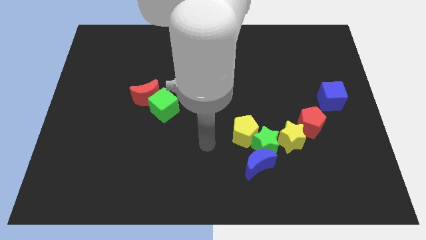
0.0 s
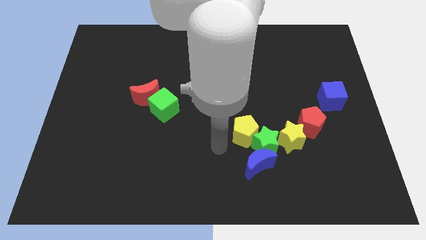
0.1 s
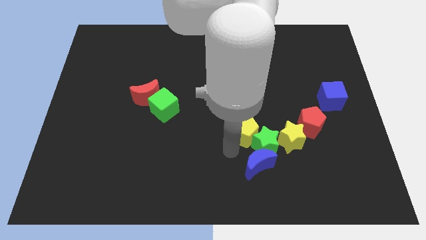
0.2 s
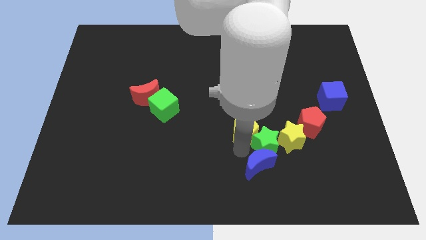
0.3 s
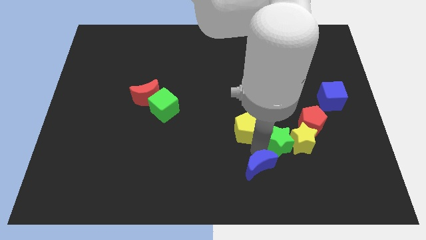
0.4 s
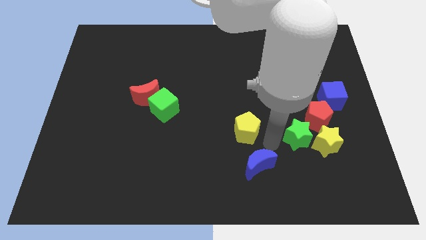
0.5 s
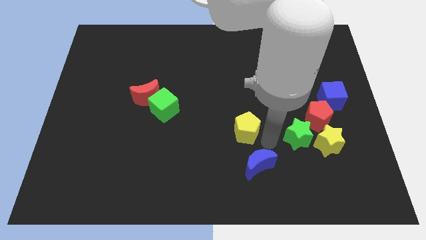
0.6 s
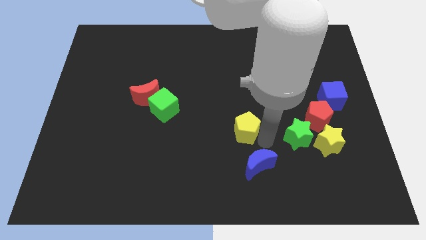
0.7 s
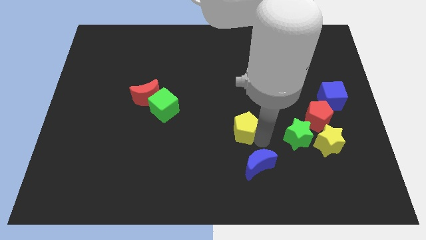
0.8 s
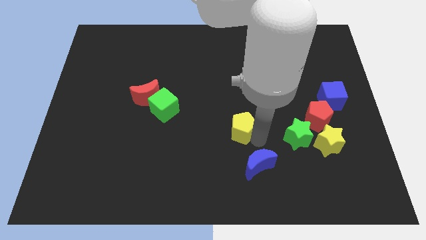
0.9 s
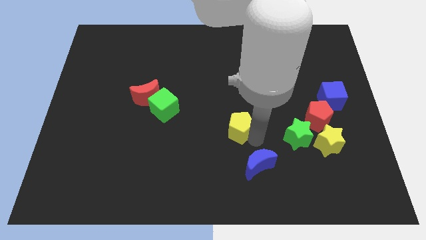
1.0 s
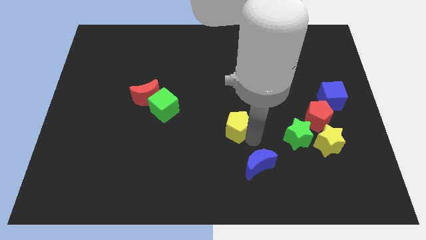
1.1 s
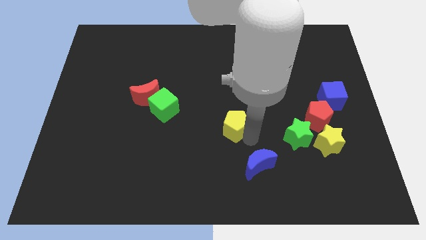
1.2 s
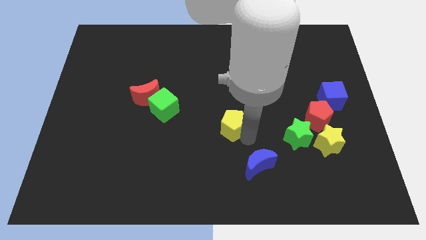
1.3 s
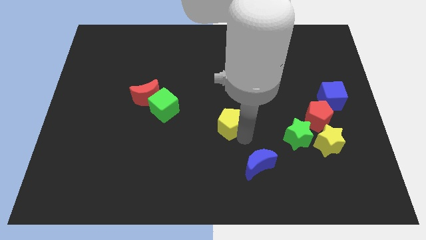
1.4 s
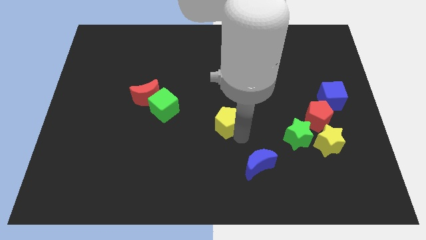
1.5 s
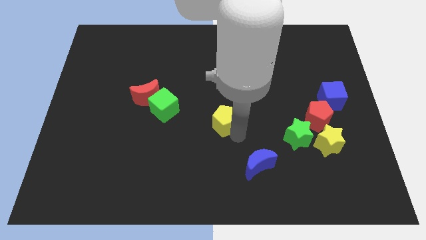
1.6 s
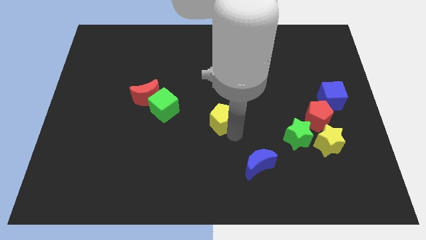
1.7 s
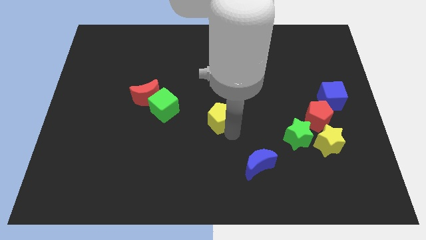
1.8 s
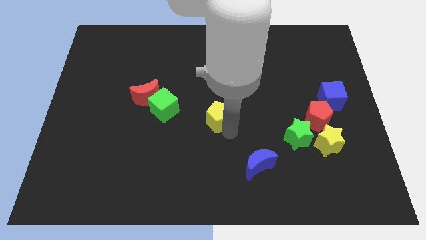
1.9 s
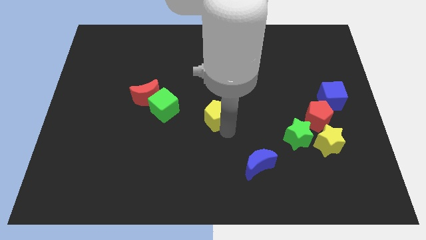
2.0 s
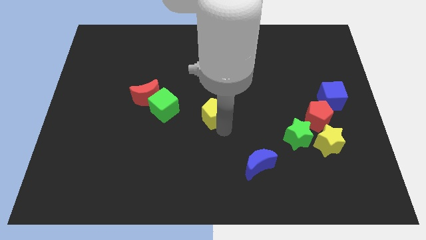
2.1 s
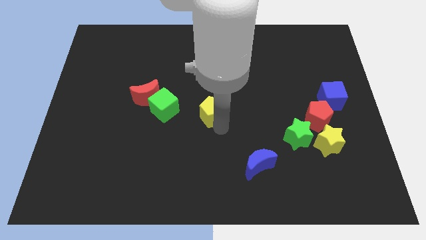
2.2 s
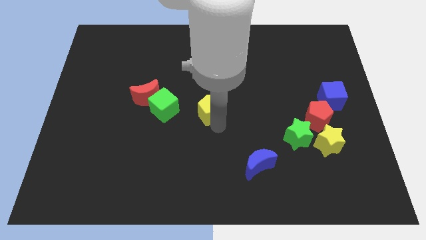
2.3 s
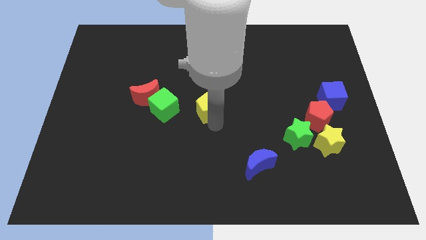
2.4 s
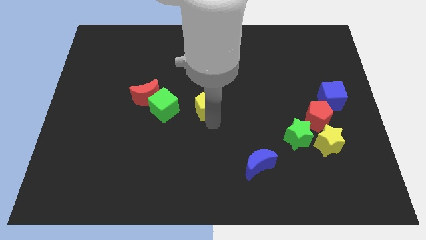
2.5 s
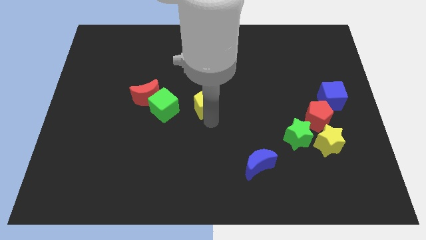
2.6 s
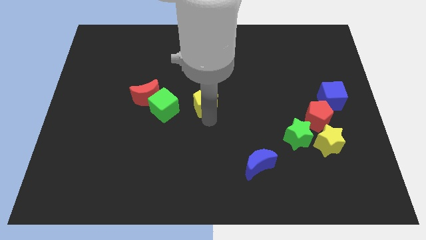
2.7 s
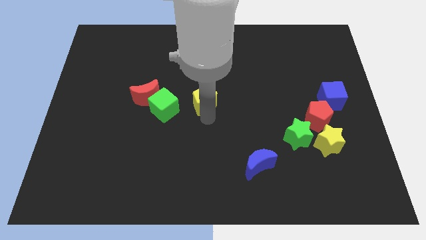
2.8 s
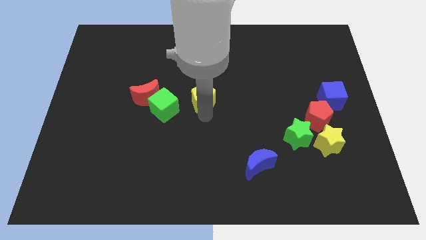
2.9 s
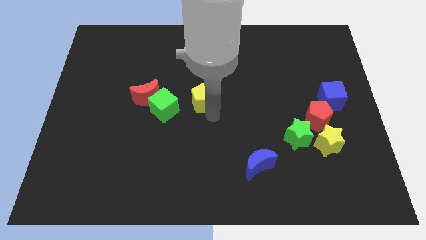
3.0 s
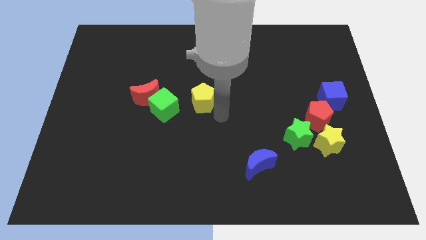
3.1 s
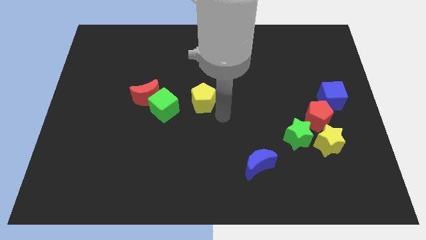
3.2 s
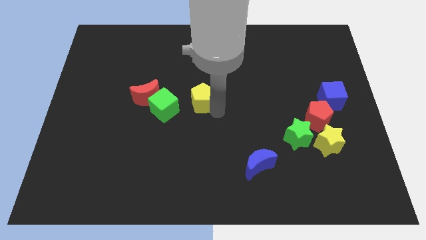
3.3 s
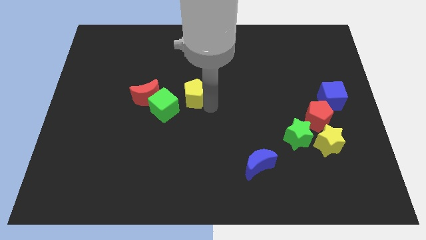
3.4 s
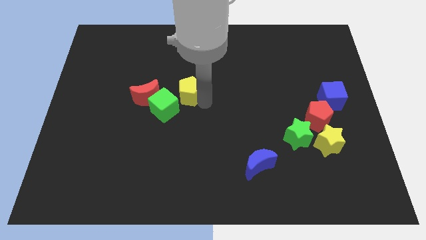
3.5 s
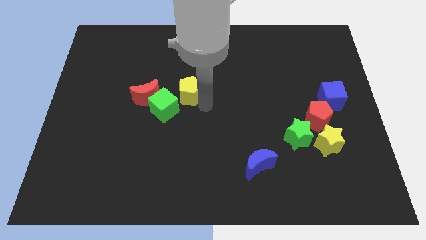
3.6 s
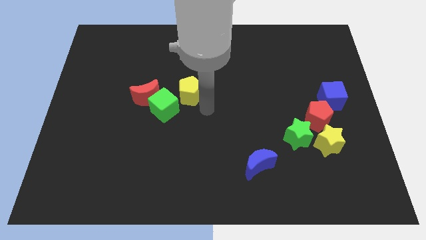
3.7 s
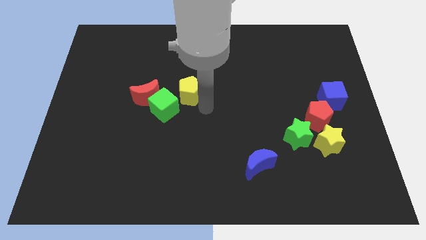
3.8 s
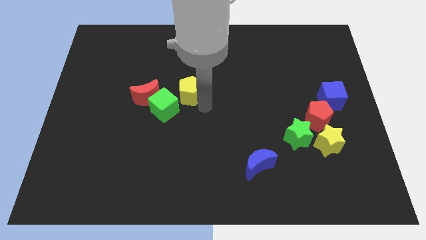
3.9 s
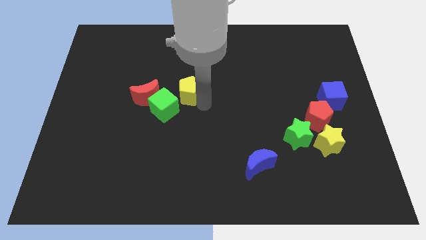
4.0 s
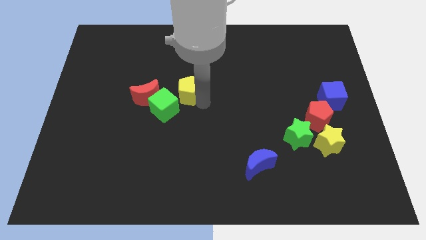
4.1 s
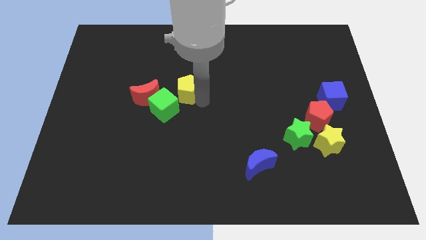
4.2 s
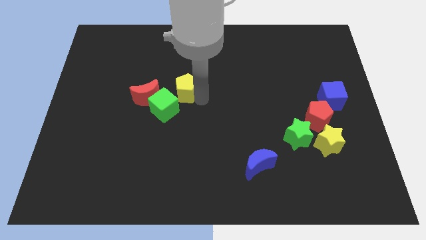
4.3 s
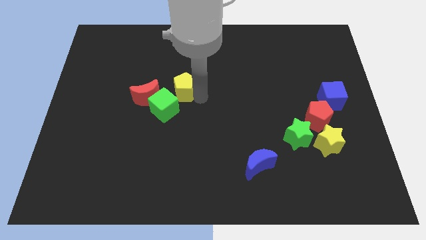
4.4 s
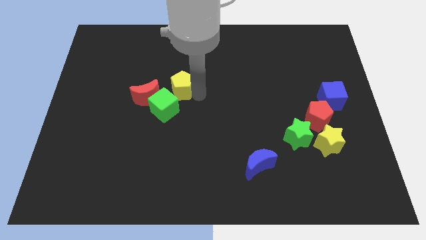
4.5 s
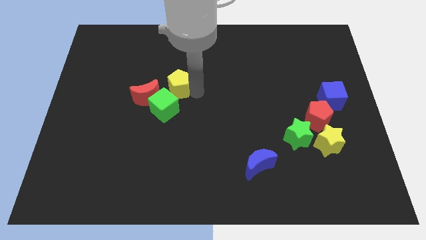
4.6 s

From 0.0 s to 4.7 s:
push the yellow pentagon diagonally up and to the left

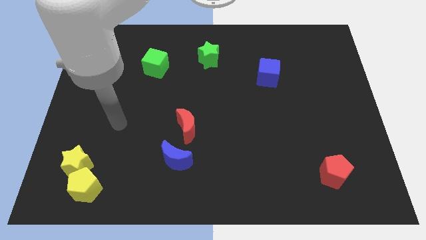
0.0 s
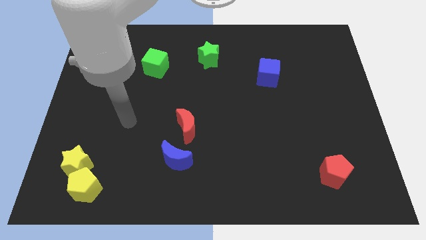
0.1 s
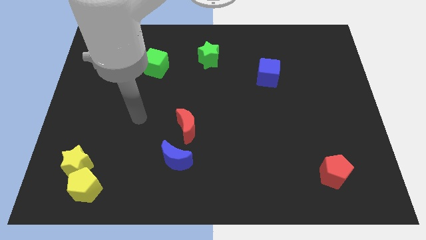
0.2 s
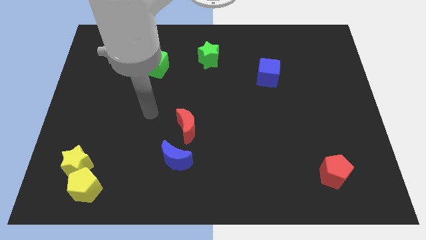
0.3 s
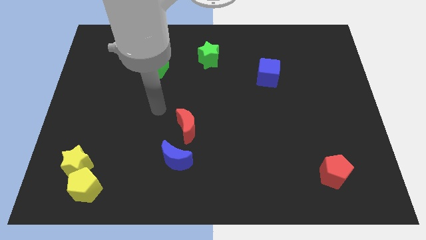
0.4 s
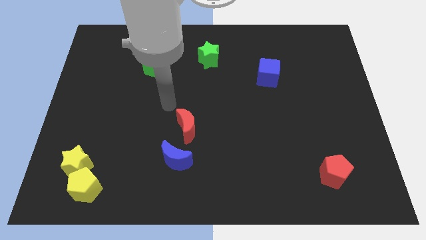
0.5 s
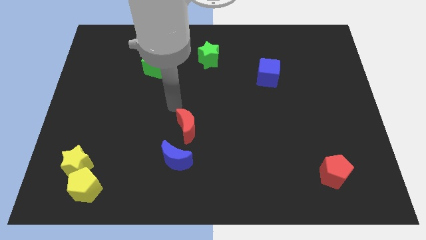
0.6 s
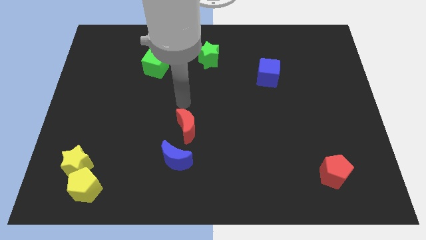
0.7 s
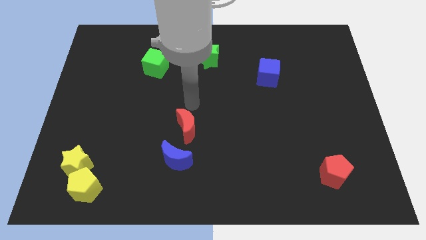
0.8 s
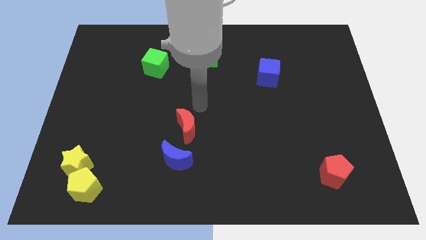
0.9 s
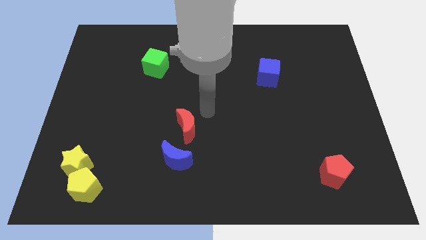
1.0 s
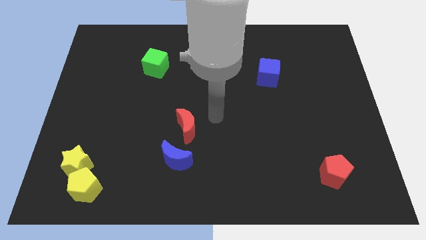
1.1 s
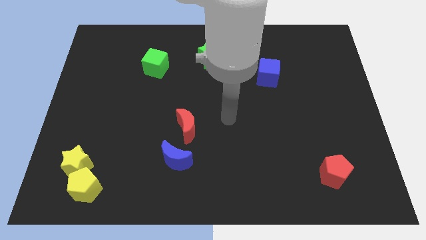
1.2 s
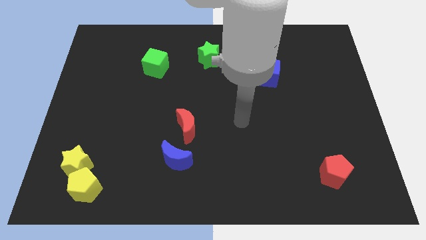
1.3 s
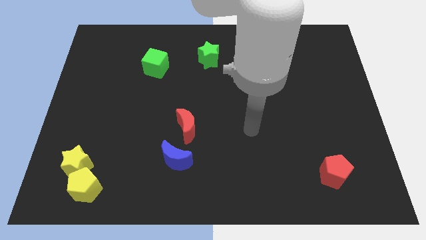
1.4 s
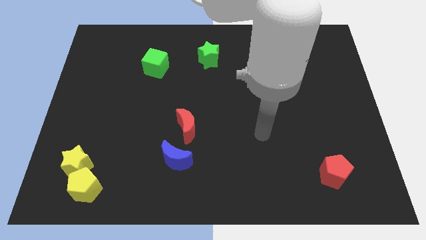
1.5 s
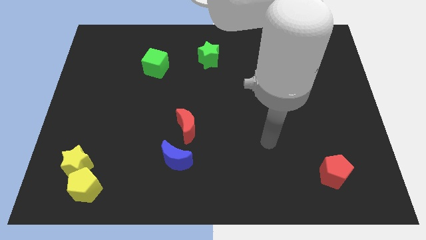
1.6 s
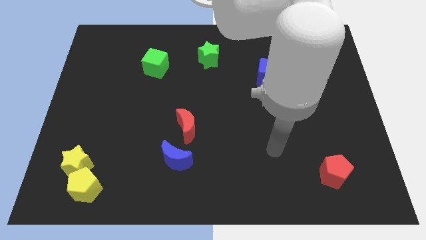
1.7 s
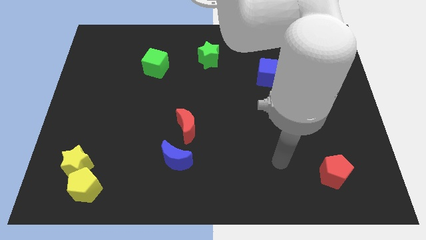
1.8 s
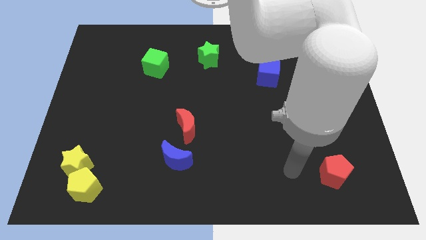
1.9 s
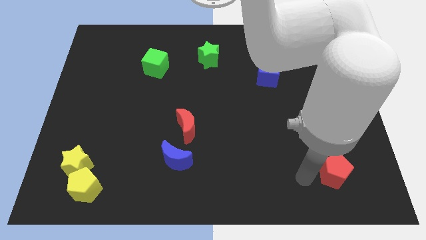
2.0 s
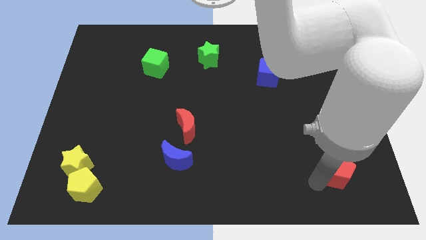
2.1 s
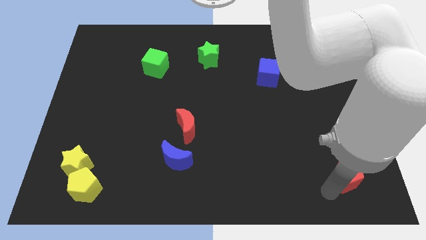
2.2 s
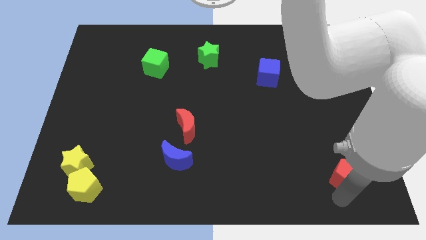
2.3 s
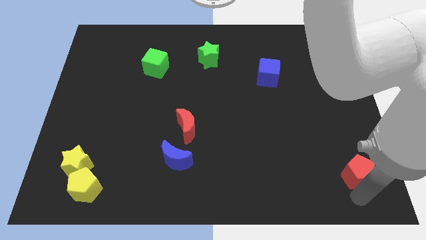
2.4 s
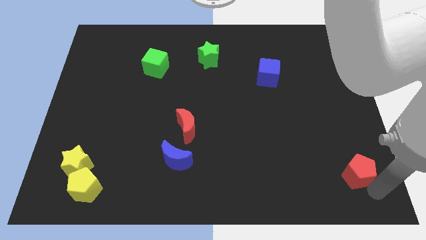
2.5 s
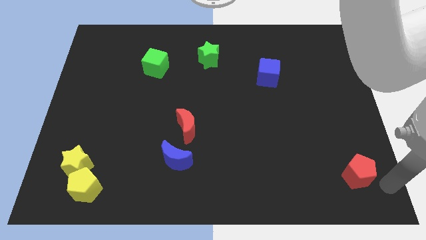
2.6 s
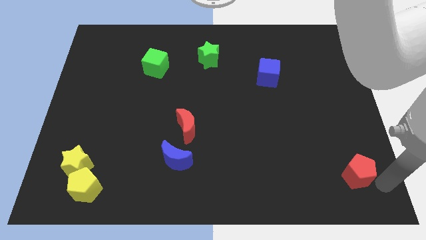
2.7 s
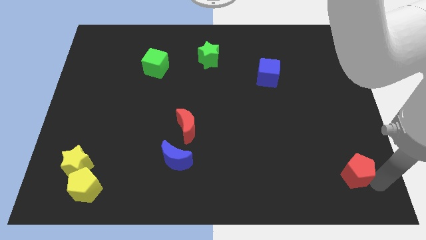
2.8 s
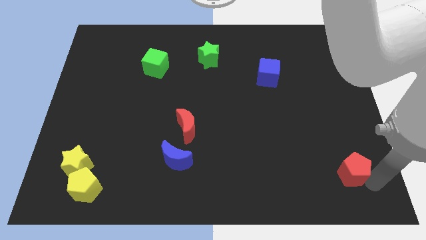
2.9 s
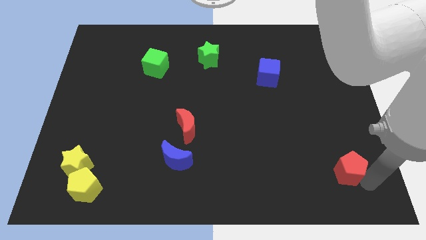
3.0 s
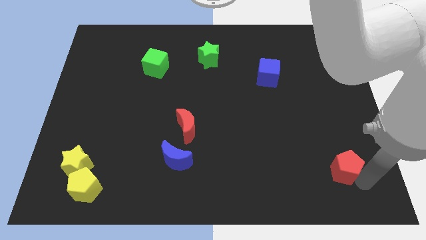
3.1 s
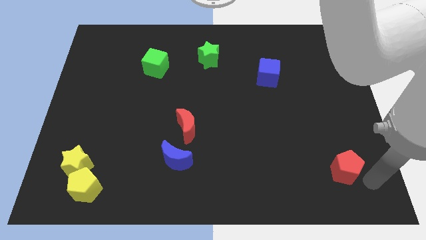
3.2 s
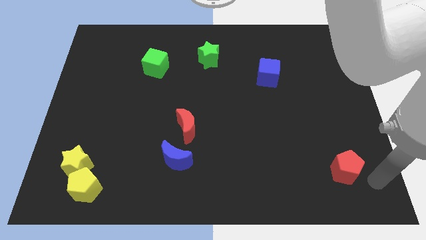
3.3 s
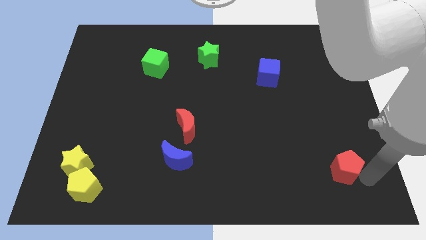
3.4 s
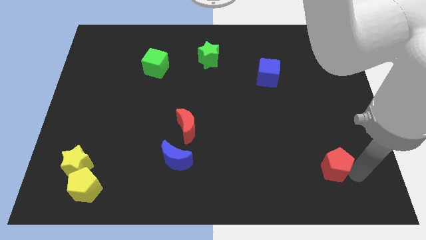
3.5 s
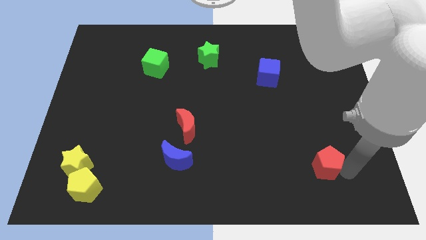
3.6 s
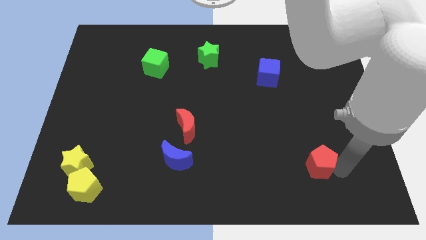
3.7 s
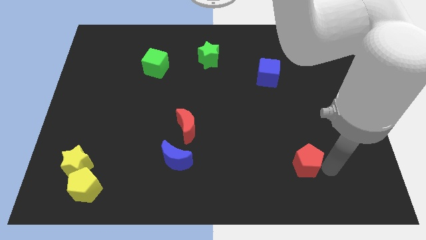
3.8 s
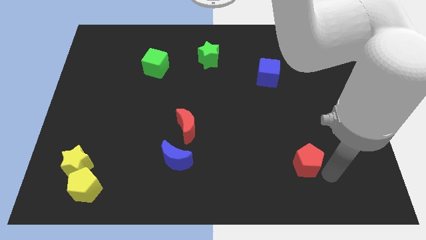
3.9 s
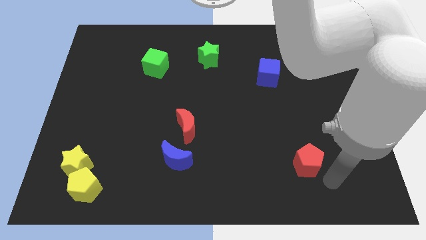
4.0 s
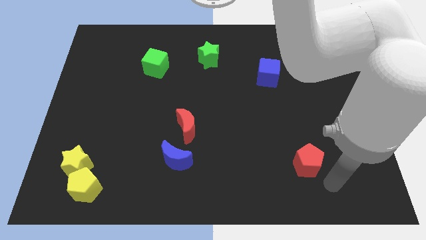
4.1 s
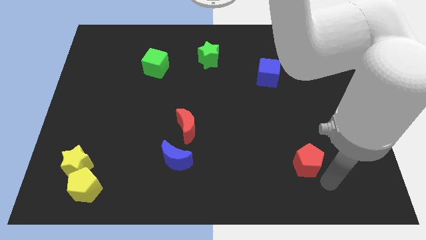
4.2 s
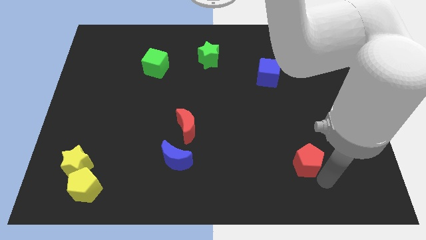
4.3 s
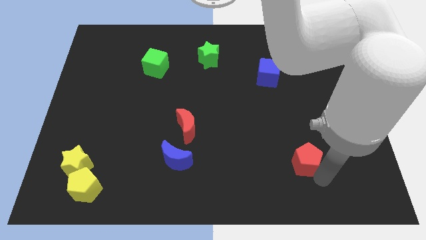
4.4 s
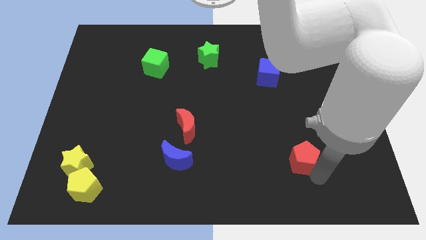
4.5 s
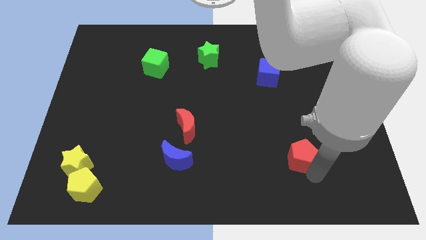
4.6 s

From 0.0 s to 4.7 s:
move the red pentagon upwards and left a little
